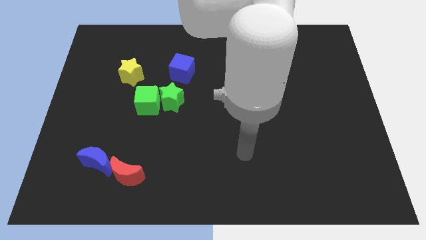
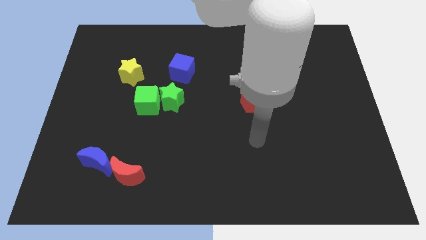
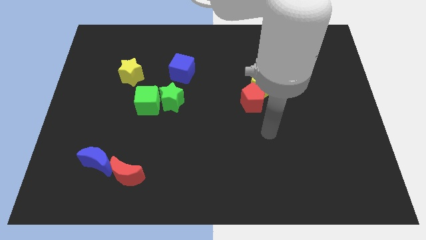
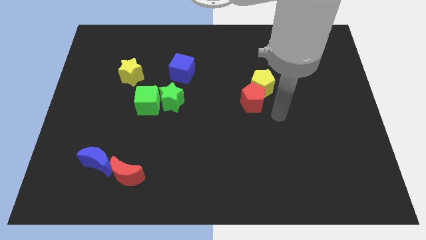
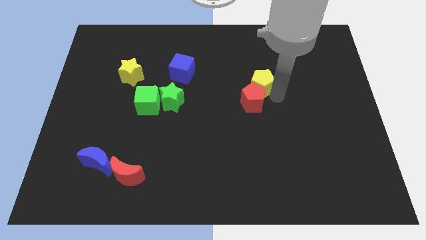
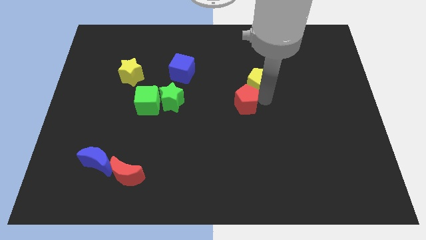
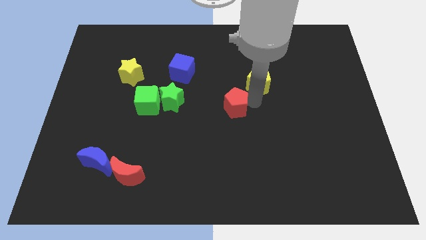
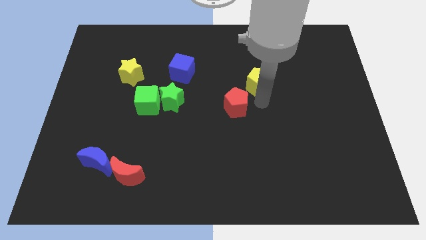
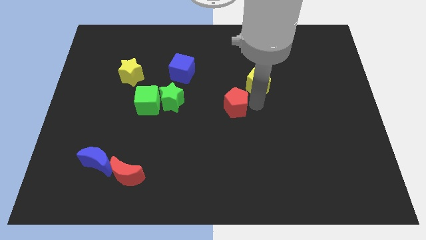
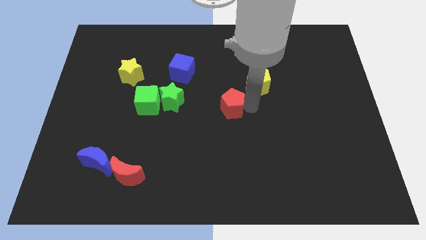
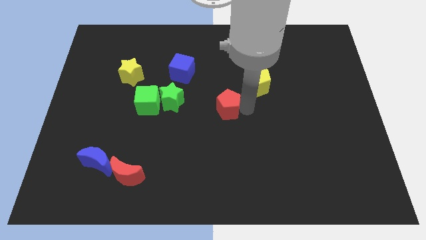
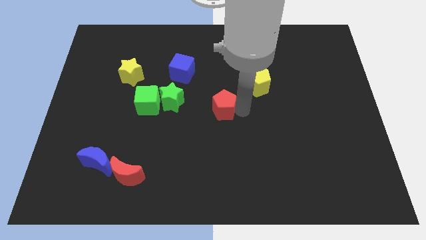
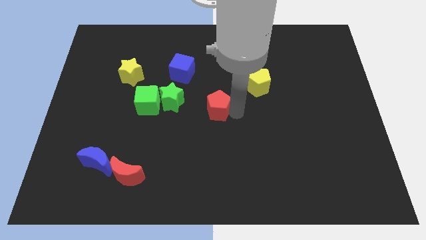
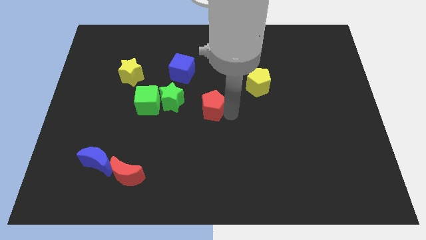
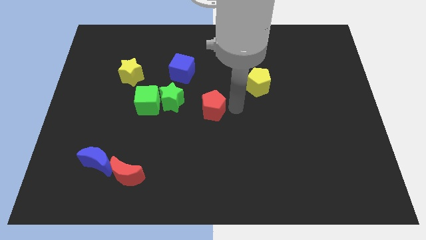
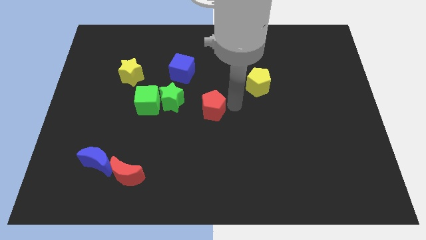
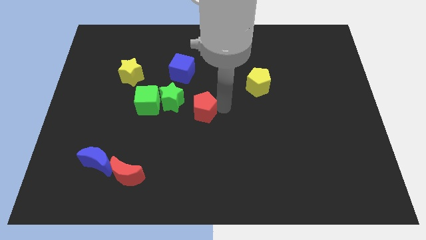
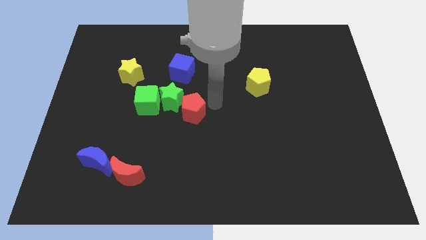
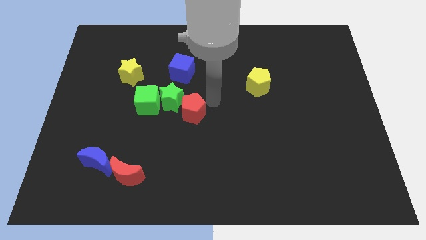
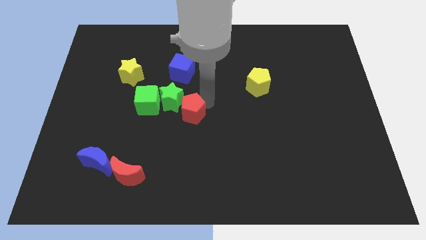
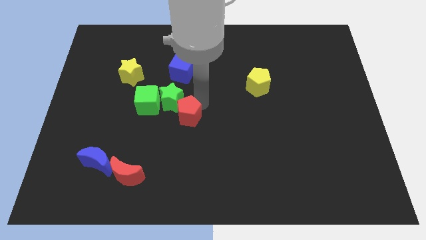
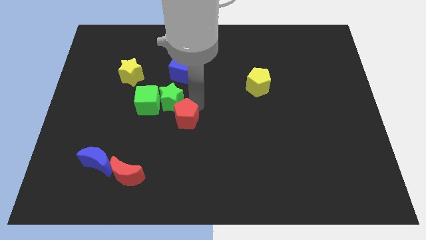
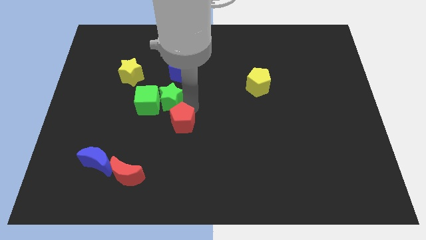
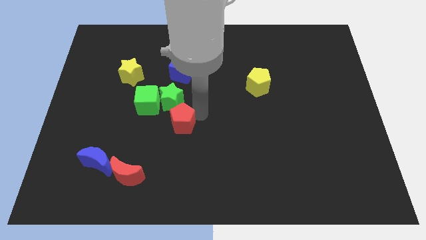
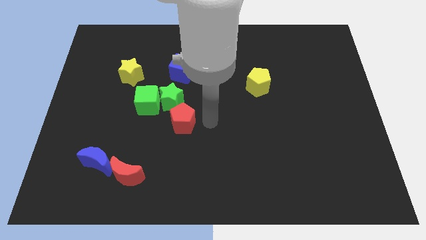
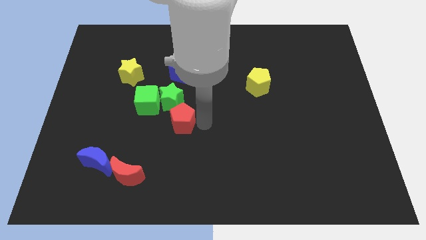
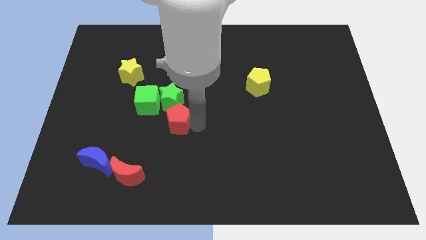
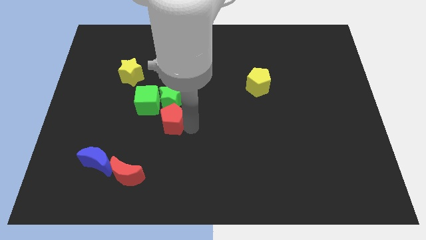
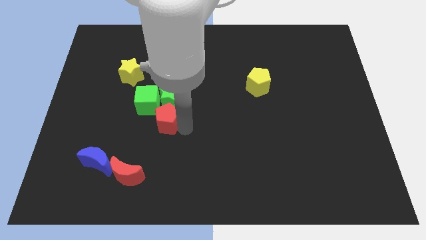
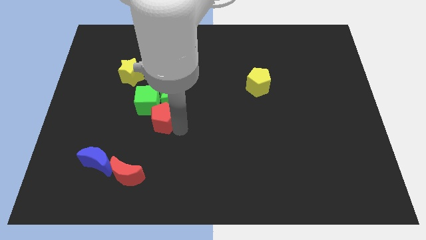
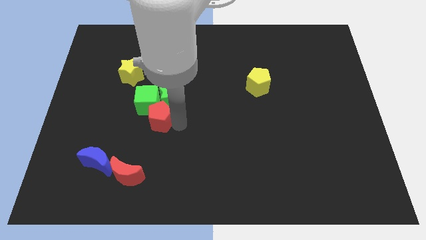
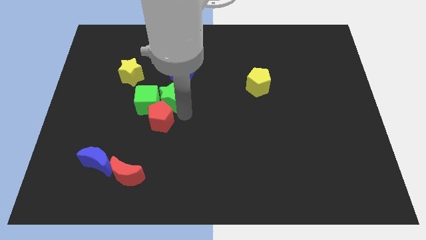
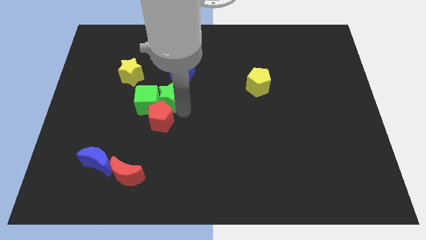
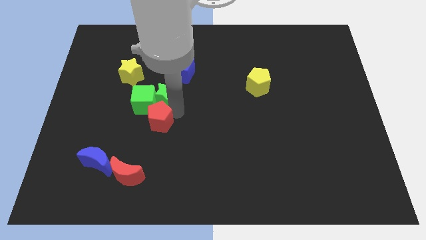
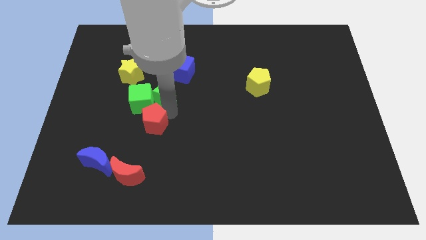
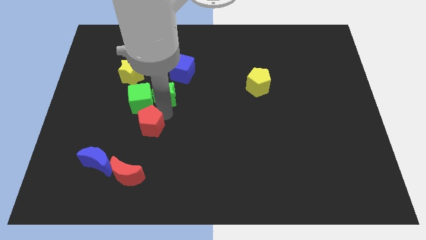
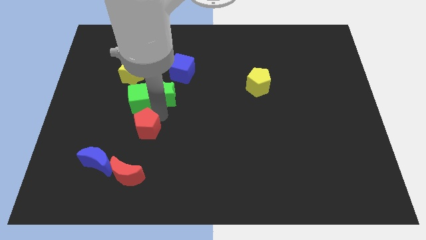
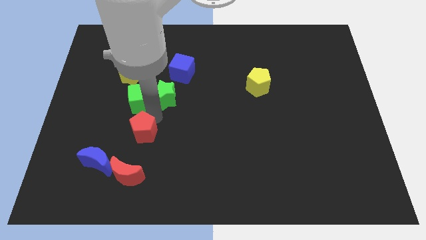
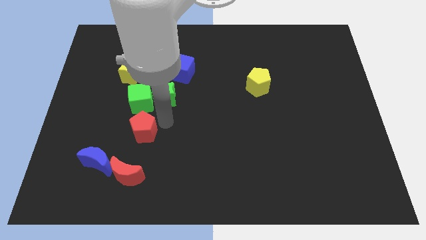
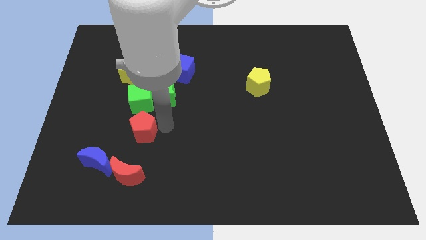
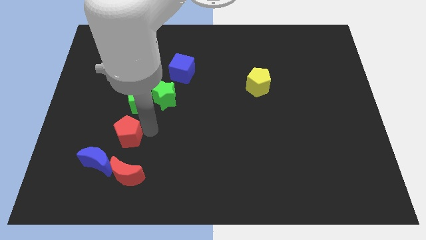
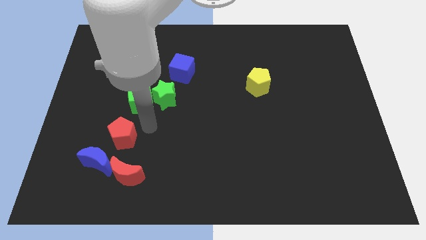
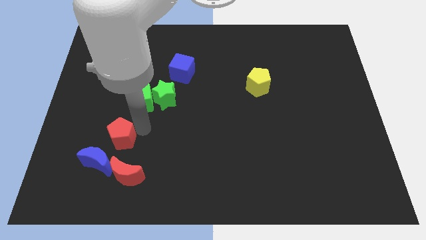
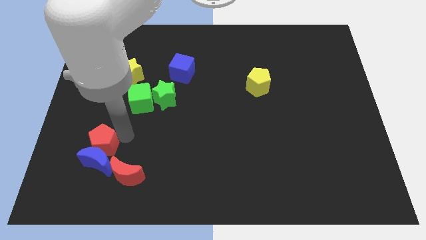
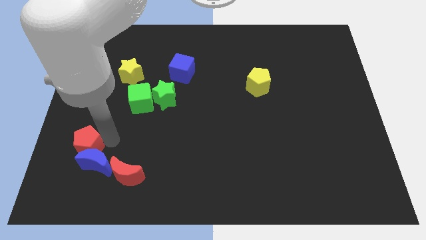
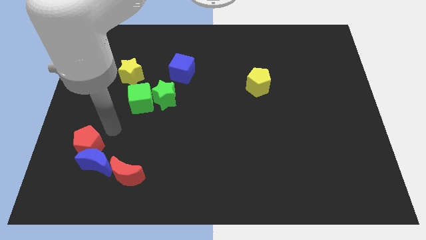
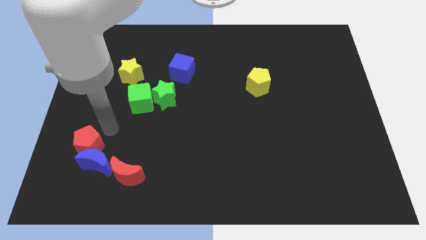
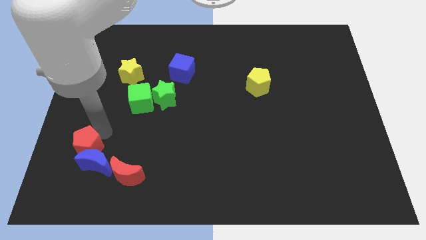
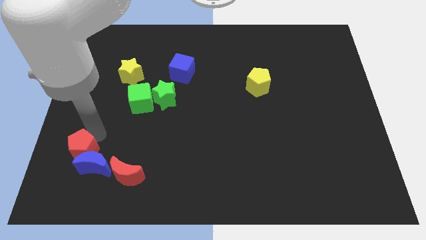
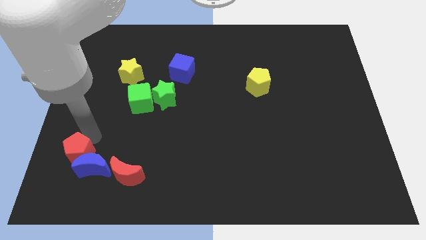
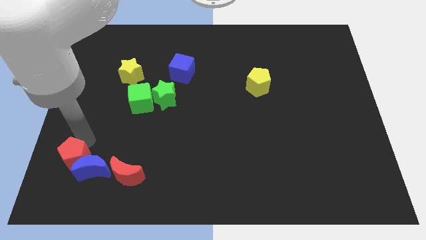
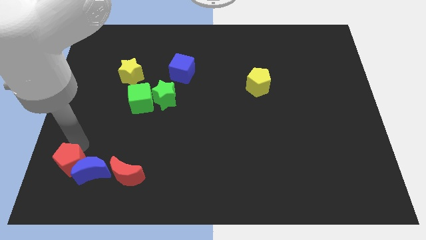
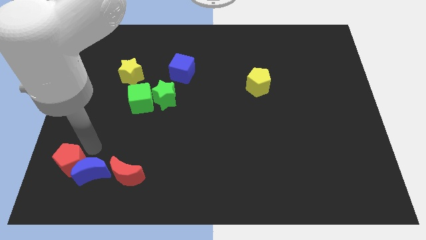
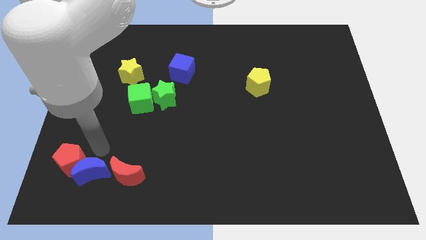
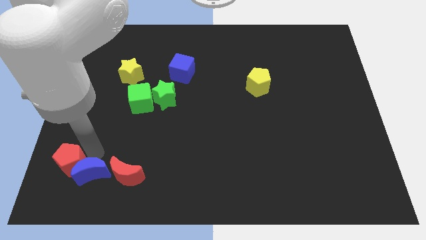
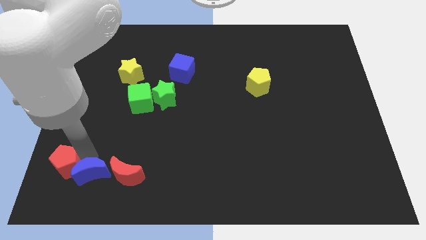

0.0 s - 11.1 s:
slide the red pentagon to the bottom left of the board
